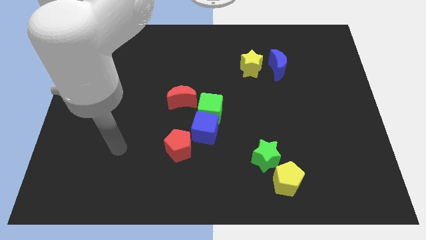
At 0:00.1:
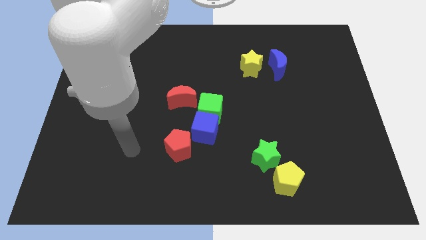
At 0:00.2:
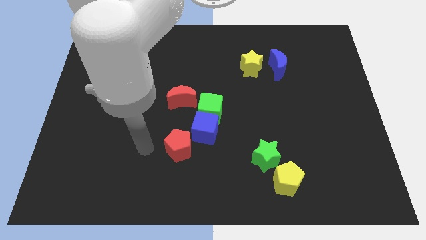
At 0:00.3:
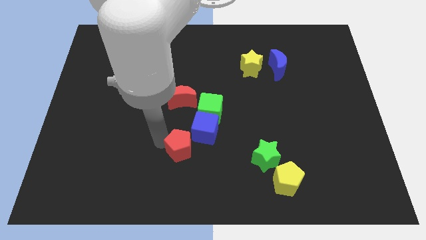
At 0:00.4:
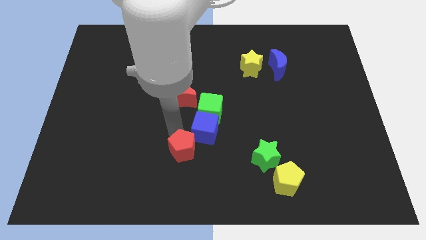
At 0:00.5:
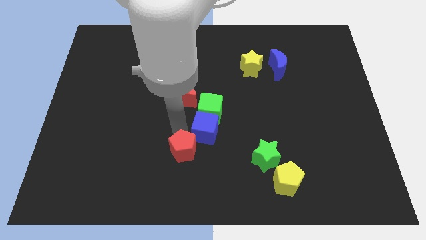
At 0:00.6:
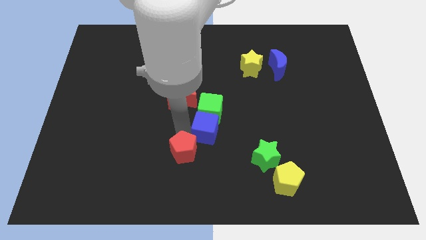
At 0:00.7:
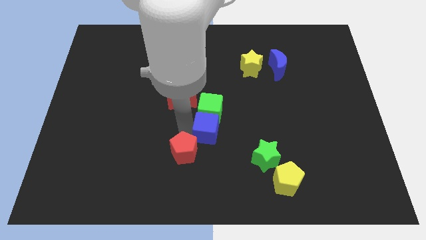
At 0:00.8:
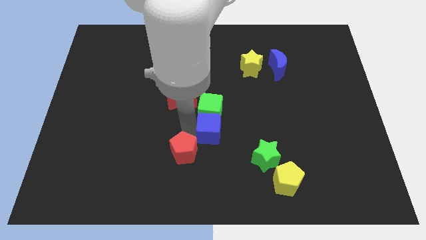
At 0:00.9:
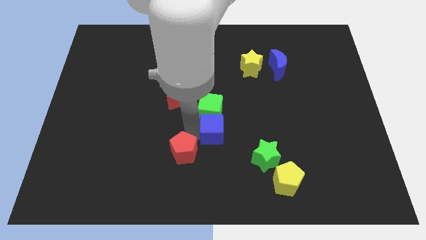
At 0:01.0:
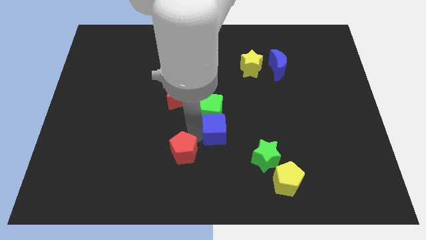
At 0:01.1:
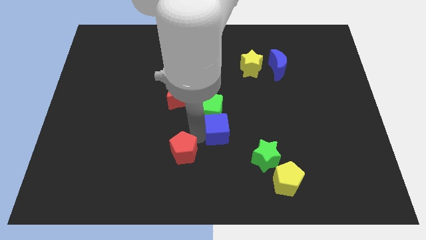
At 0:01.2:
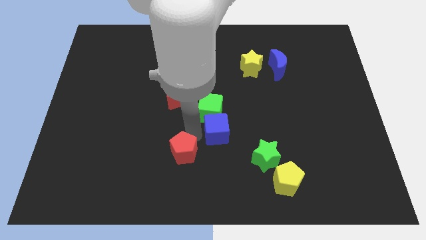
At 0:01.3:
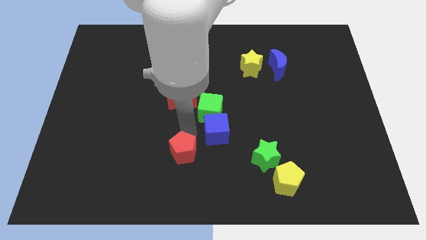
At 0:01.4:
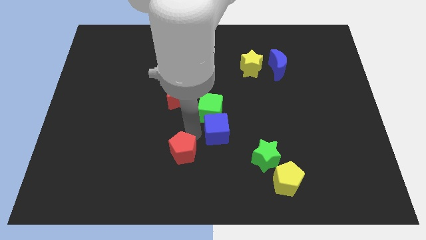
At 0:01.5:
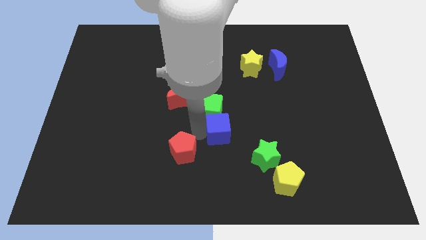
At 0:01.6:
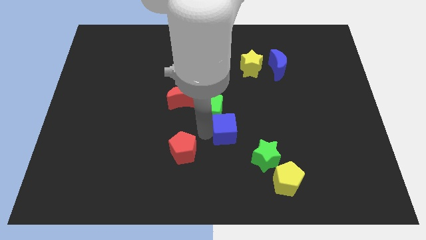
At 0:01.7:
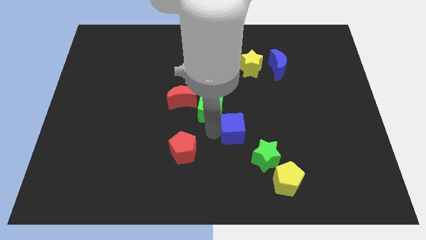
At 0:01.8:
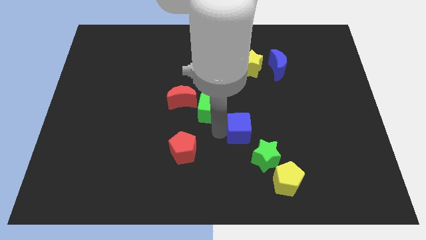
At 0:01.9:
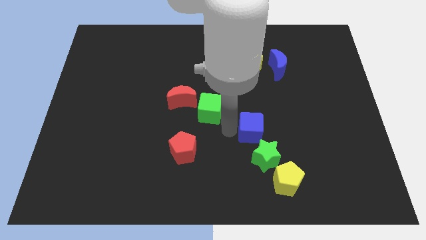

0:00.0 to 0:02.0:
pull the blue cube apart from the green cube and red pentagon

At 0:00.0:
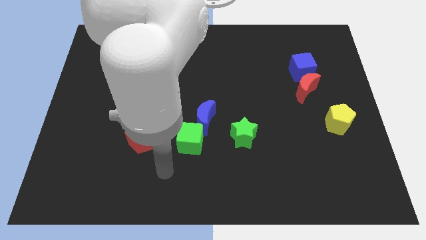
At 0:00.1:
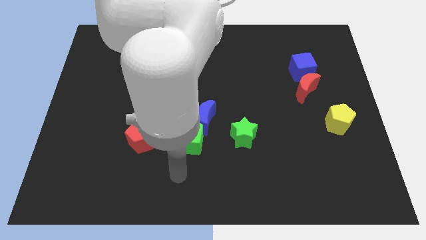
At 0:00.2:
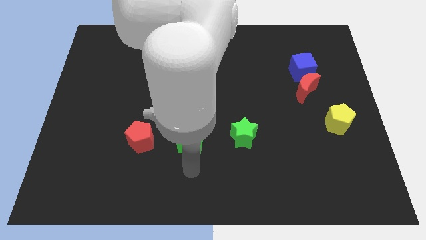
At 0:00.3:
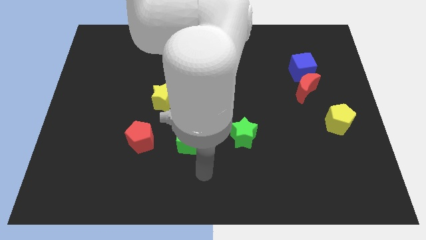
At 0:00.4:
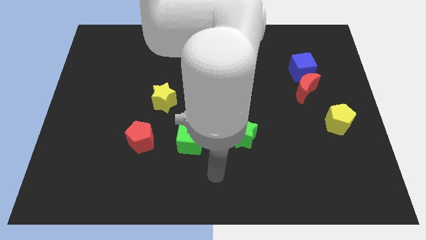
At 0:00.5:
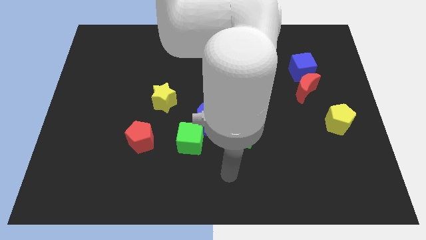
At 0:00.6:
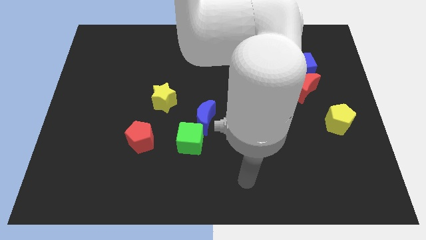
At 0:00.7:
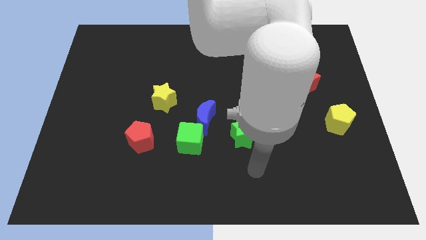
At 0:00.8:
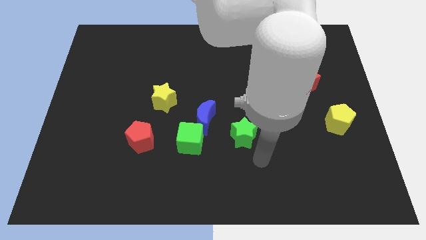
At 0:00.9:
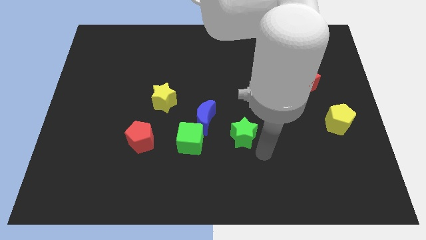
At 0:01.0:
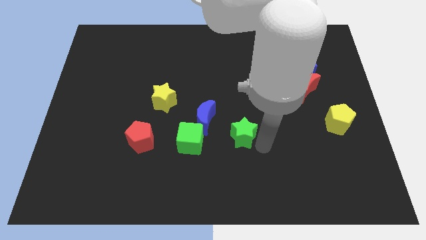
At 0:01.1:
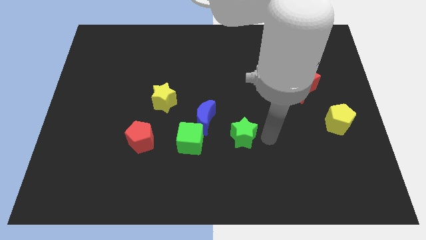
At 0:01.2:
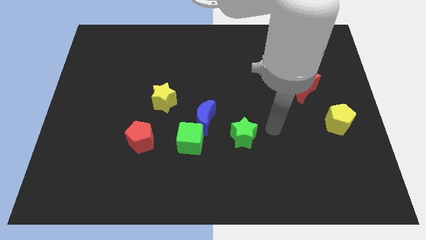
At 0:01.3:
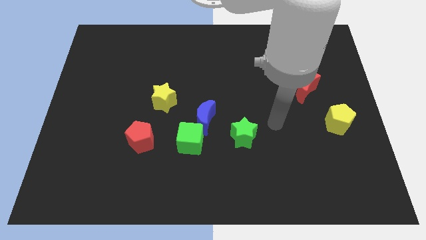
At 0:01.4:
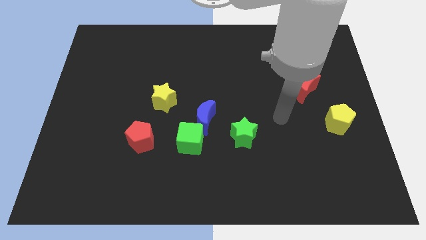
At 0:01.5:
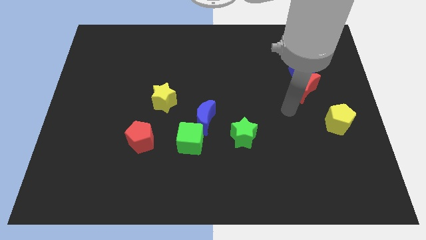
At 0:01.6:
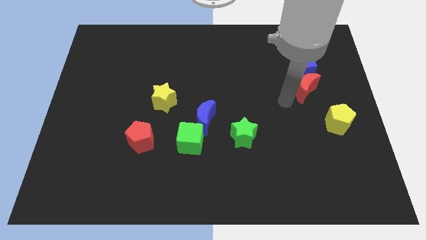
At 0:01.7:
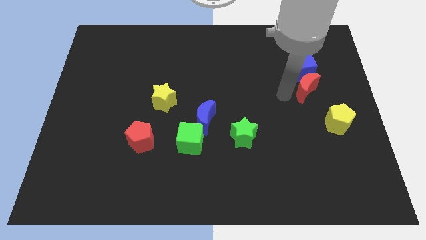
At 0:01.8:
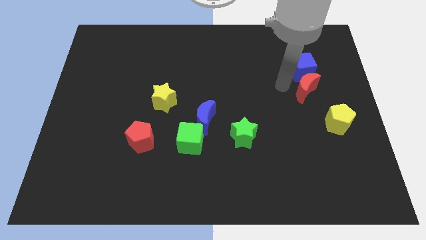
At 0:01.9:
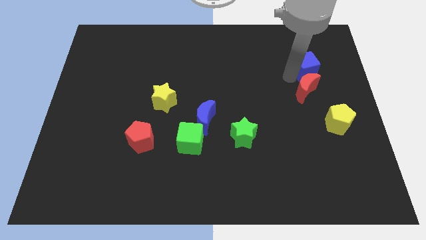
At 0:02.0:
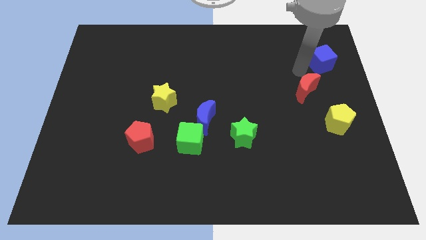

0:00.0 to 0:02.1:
move the red moon away from the blue cube

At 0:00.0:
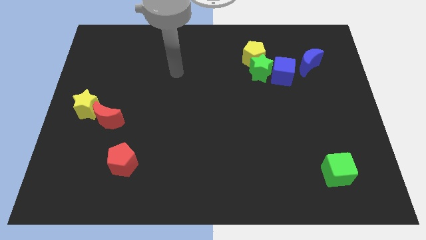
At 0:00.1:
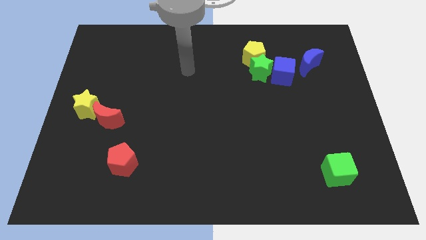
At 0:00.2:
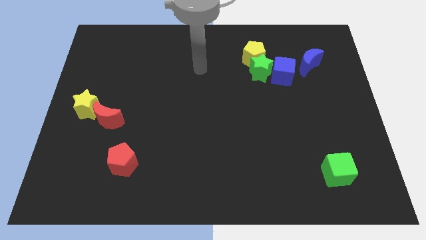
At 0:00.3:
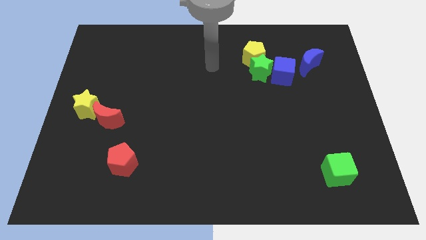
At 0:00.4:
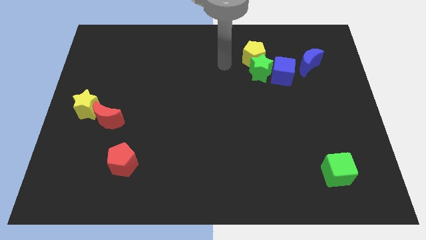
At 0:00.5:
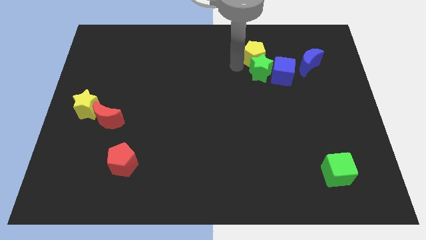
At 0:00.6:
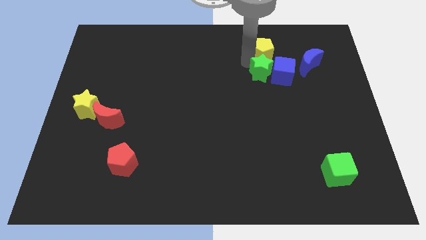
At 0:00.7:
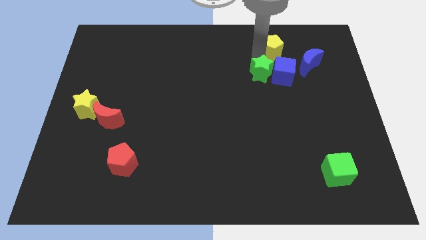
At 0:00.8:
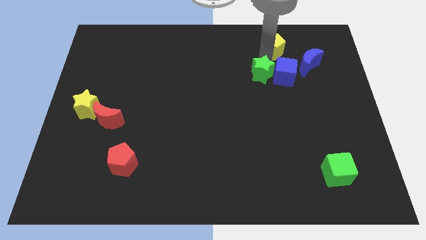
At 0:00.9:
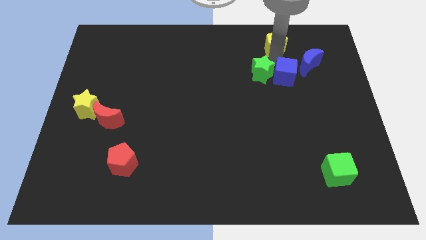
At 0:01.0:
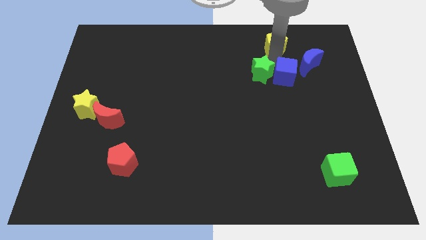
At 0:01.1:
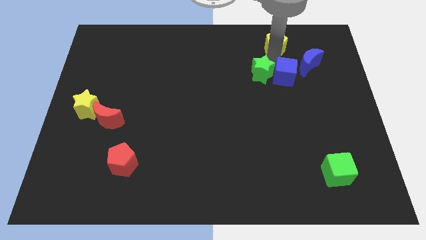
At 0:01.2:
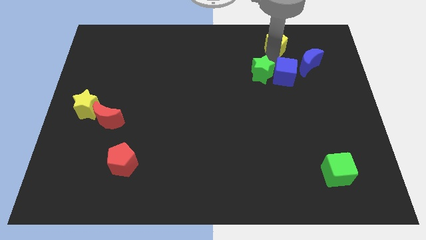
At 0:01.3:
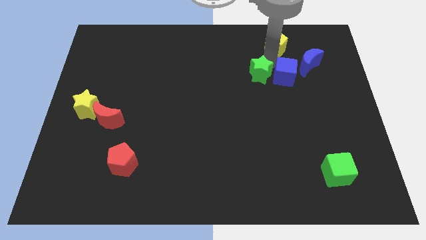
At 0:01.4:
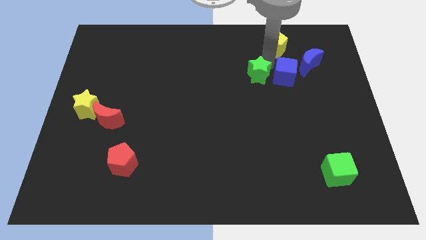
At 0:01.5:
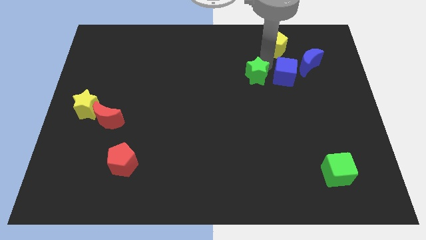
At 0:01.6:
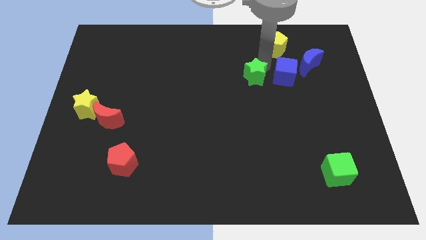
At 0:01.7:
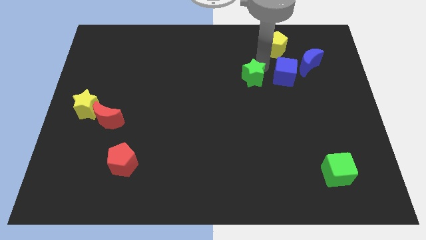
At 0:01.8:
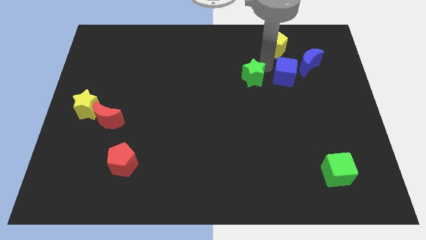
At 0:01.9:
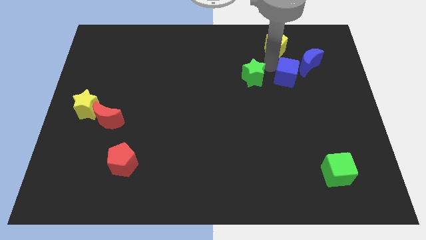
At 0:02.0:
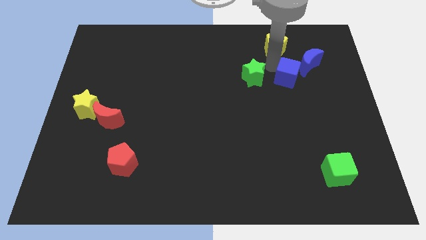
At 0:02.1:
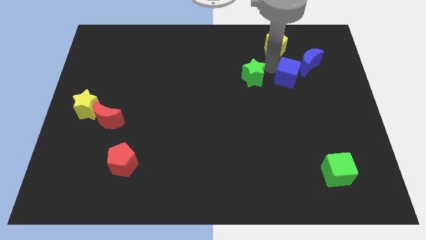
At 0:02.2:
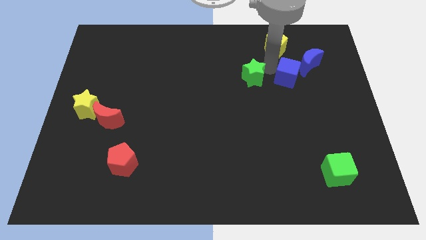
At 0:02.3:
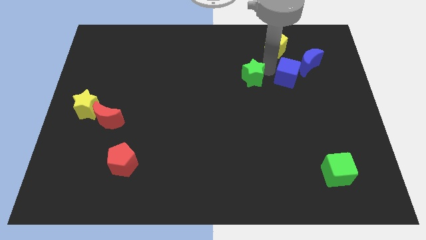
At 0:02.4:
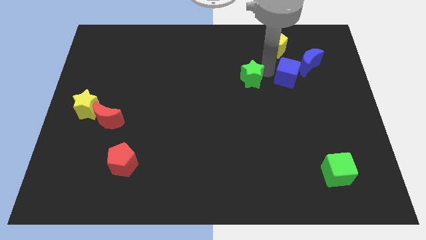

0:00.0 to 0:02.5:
separate the green star from the yellow pentagon and blue cube

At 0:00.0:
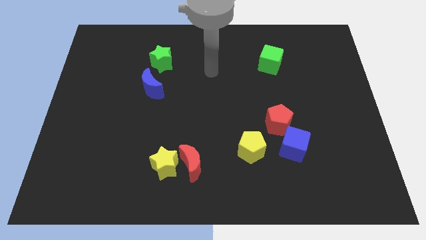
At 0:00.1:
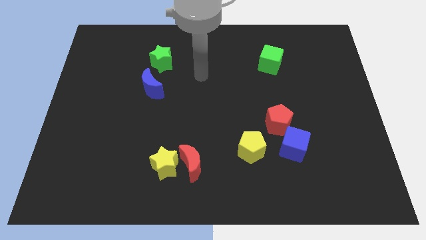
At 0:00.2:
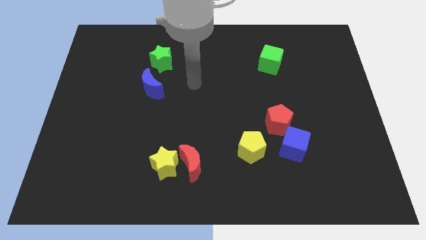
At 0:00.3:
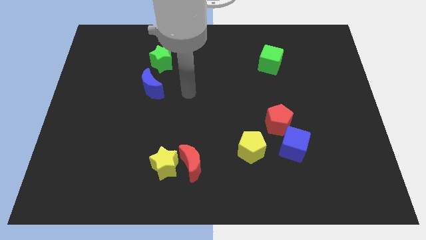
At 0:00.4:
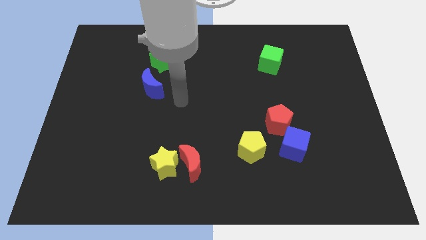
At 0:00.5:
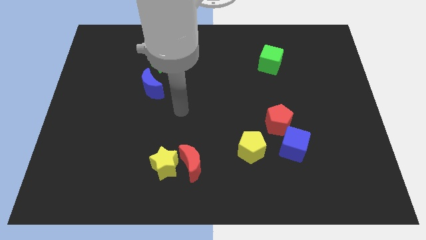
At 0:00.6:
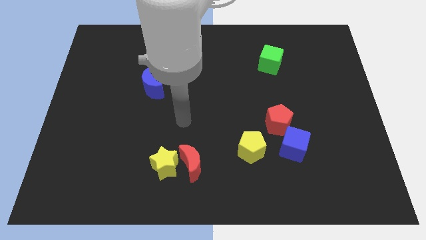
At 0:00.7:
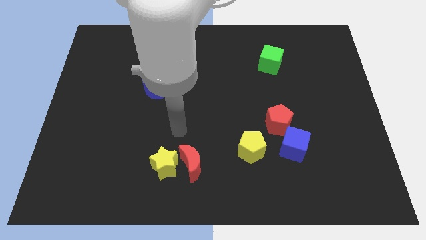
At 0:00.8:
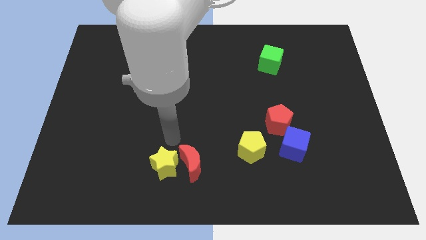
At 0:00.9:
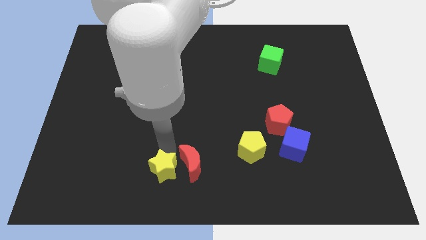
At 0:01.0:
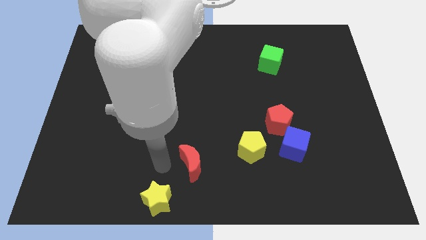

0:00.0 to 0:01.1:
pull the red moon apart from the yellow star

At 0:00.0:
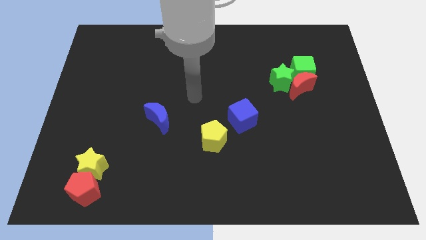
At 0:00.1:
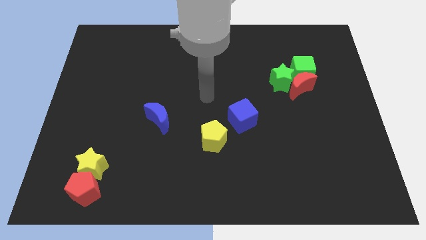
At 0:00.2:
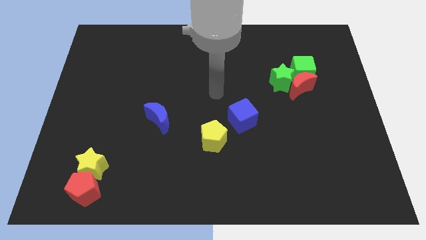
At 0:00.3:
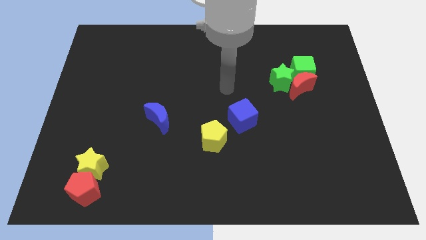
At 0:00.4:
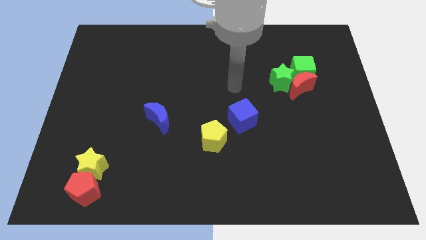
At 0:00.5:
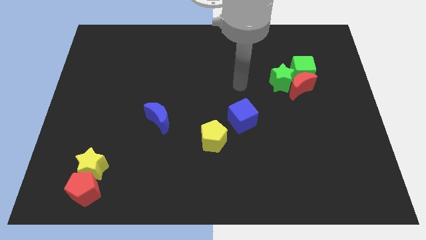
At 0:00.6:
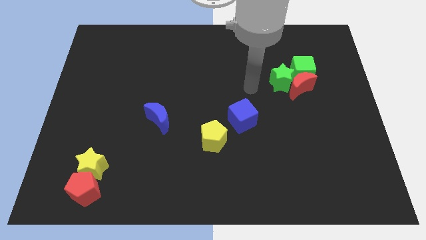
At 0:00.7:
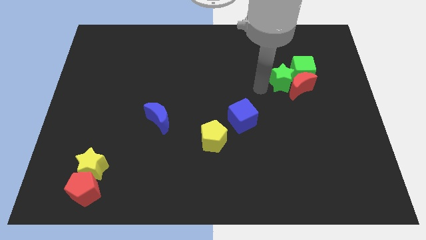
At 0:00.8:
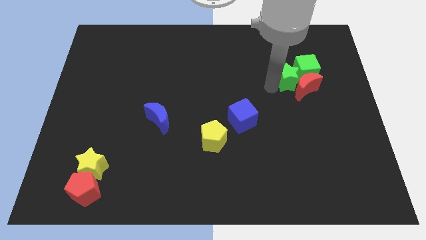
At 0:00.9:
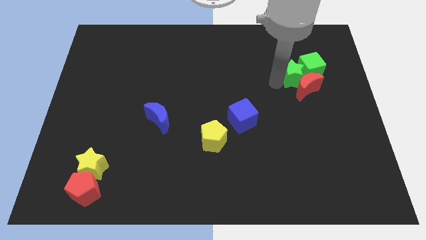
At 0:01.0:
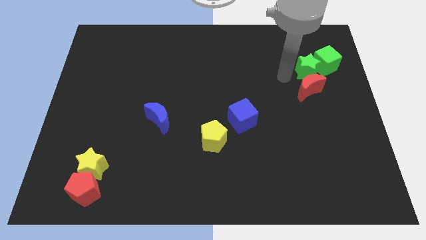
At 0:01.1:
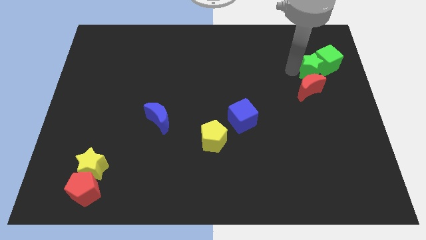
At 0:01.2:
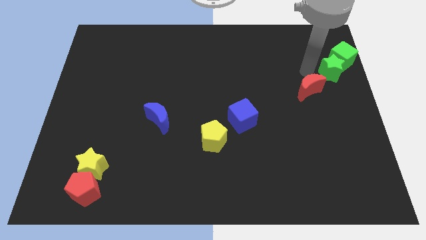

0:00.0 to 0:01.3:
move the red moon away from the green star and green cube

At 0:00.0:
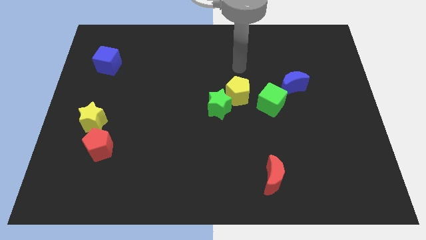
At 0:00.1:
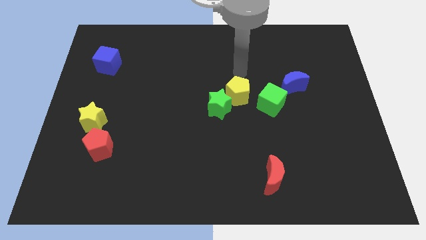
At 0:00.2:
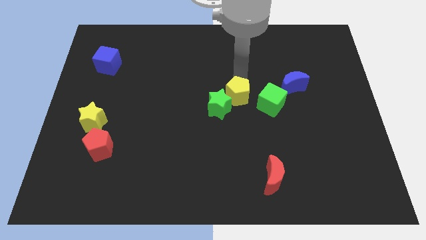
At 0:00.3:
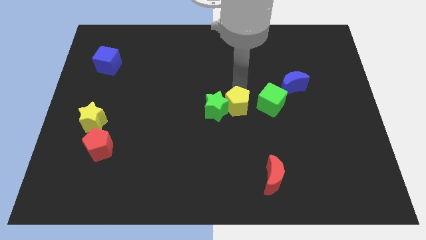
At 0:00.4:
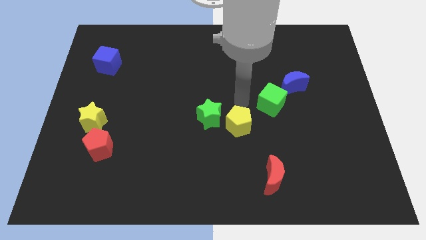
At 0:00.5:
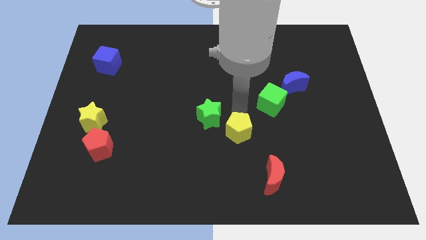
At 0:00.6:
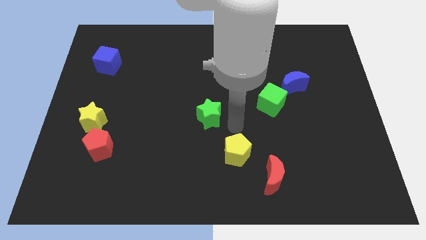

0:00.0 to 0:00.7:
pull the green star apart from the yellow pentagon
